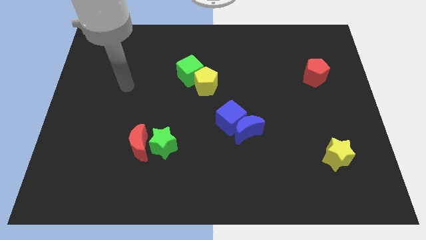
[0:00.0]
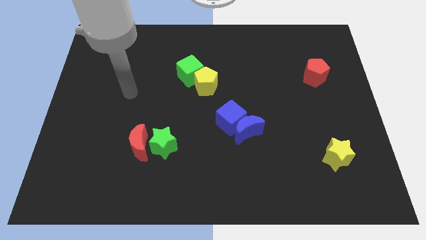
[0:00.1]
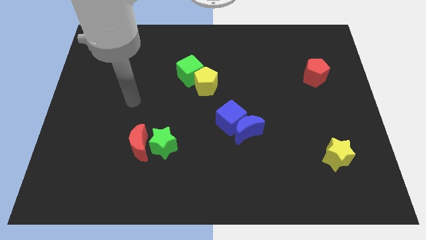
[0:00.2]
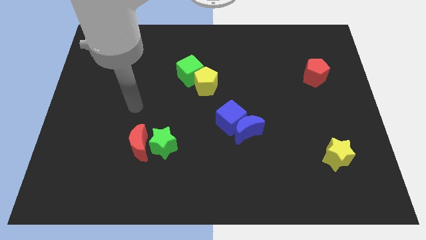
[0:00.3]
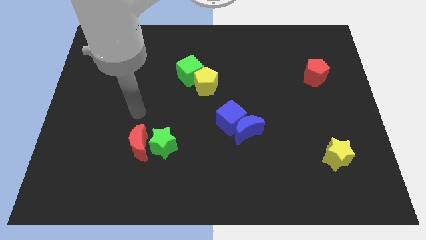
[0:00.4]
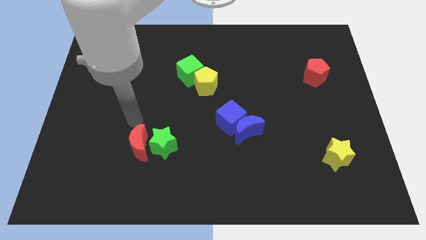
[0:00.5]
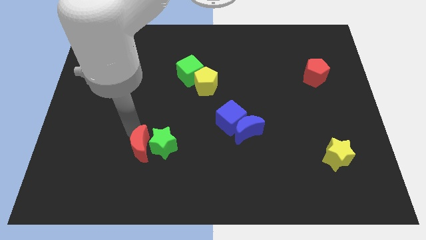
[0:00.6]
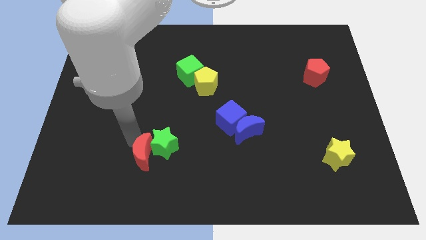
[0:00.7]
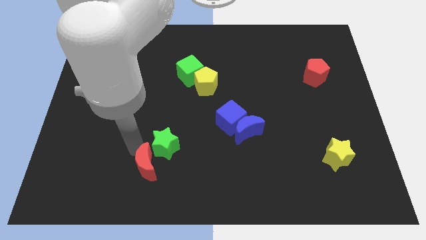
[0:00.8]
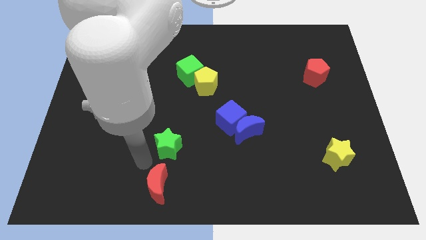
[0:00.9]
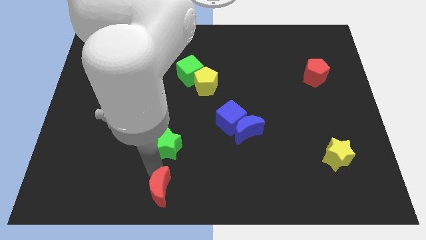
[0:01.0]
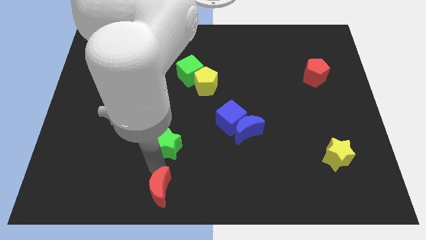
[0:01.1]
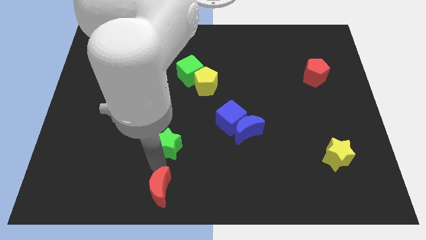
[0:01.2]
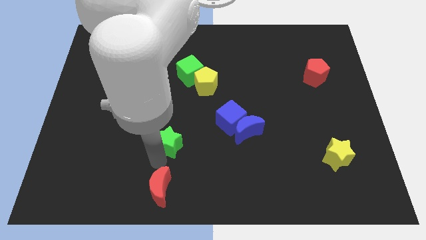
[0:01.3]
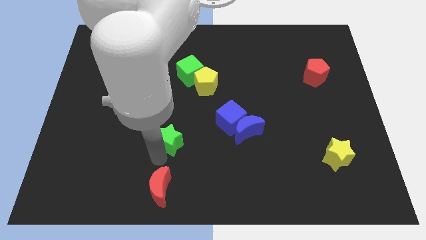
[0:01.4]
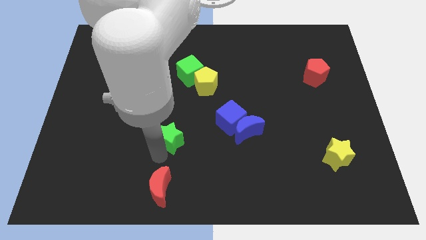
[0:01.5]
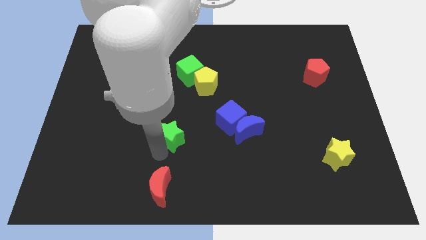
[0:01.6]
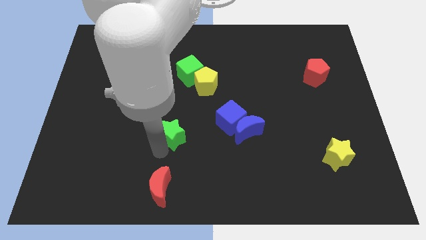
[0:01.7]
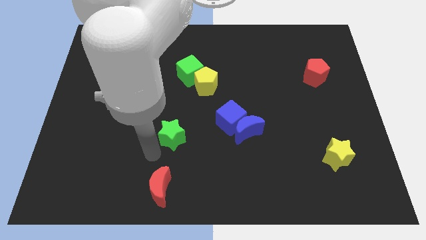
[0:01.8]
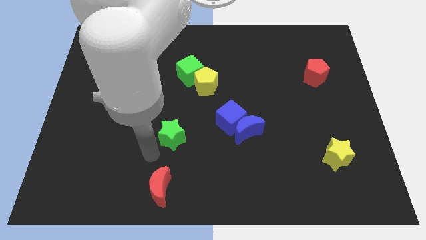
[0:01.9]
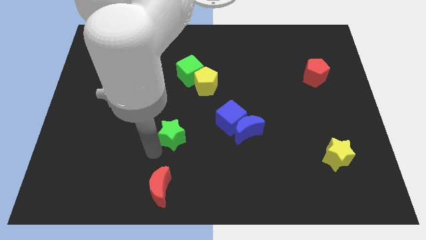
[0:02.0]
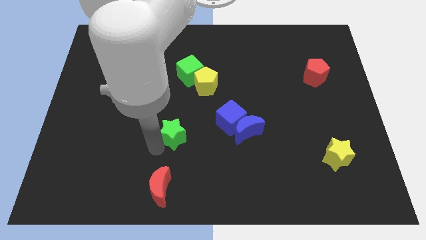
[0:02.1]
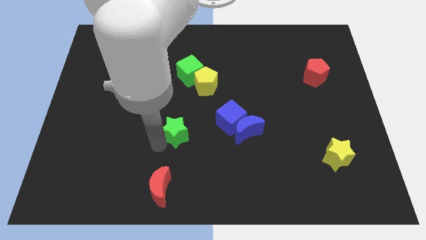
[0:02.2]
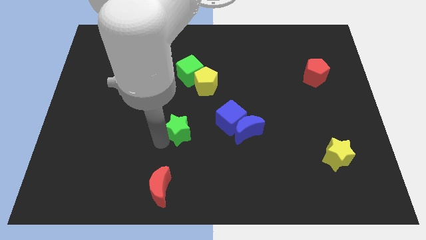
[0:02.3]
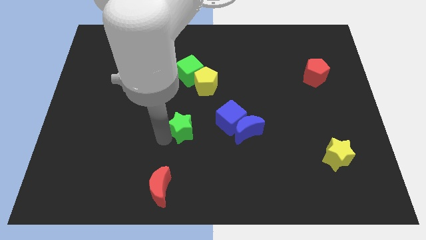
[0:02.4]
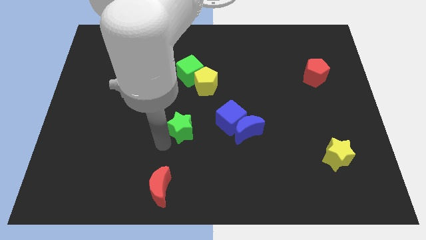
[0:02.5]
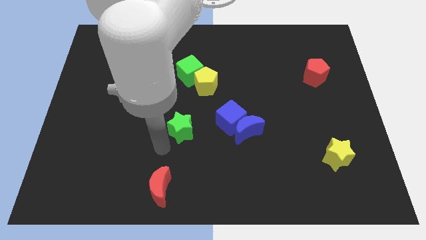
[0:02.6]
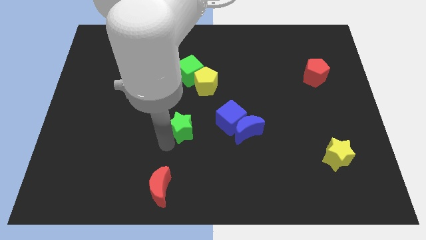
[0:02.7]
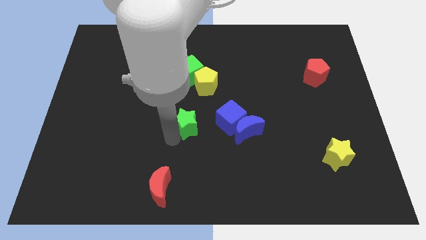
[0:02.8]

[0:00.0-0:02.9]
slightly move the green star upwards and to the right diagonally

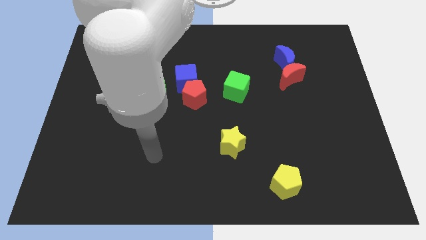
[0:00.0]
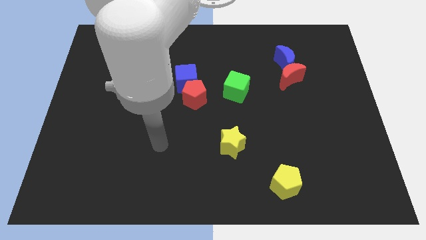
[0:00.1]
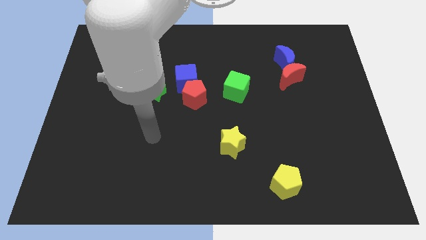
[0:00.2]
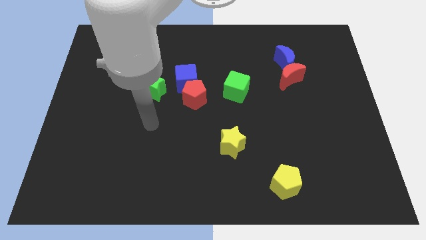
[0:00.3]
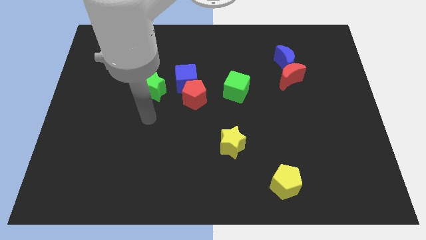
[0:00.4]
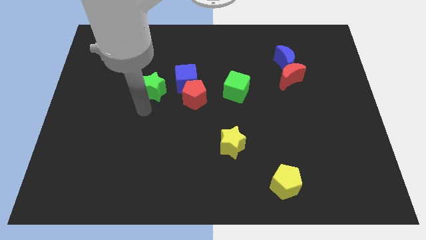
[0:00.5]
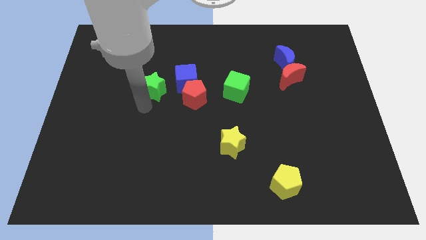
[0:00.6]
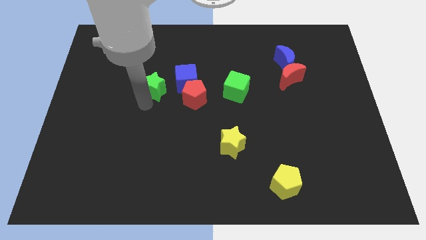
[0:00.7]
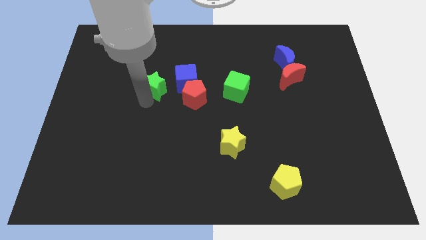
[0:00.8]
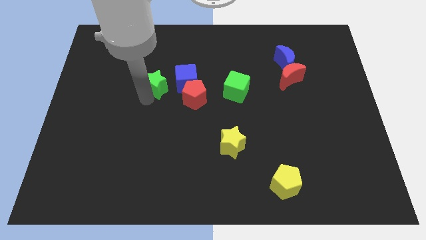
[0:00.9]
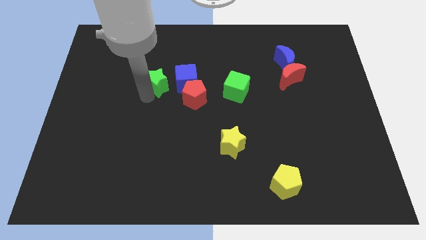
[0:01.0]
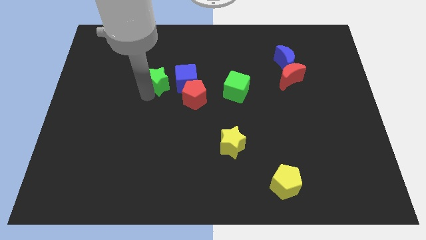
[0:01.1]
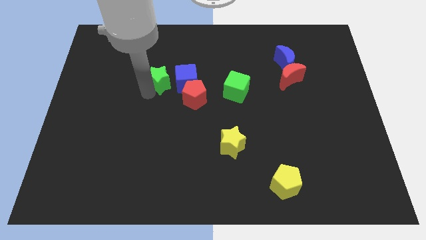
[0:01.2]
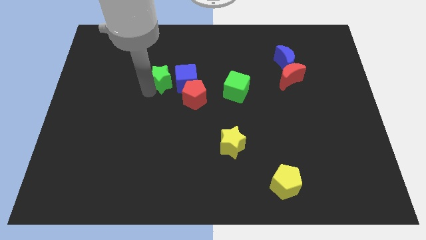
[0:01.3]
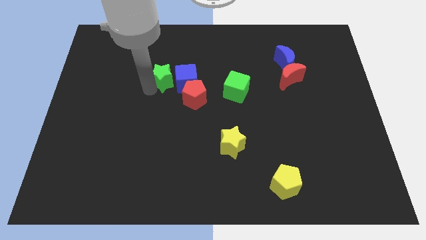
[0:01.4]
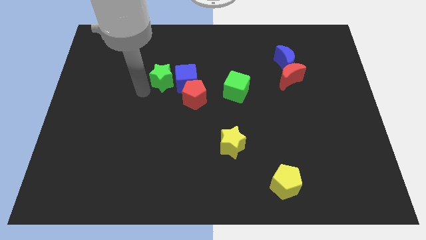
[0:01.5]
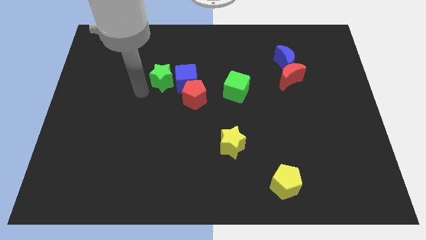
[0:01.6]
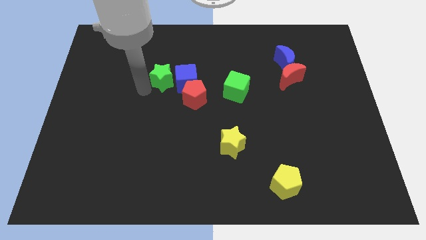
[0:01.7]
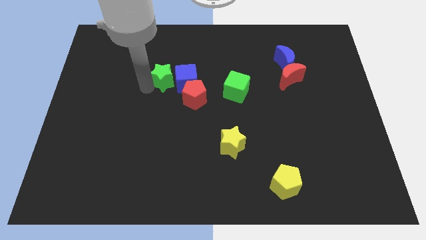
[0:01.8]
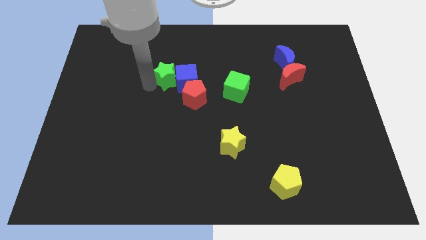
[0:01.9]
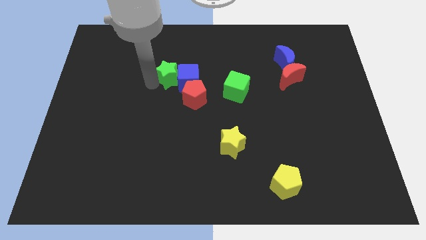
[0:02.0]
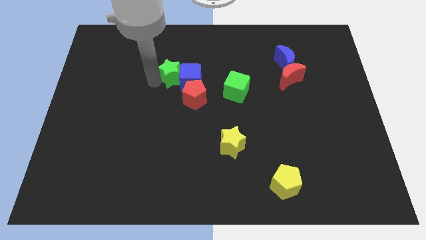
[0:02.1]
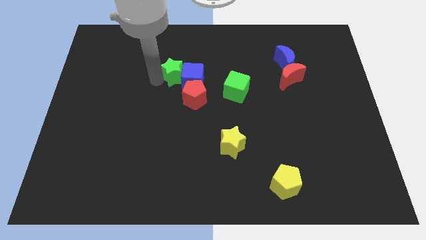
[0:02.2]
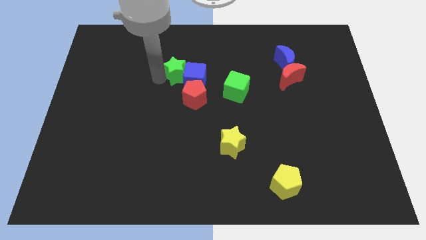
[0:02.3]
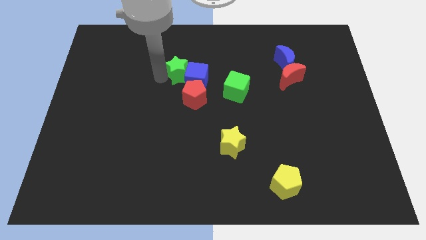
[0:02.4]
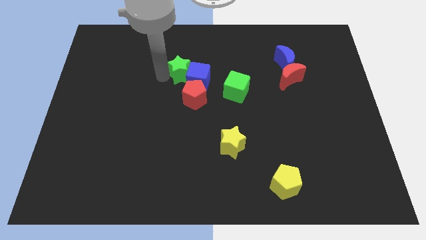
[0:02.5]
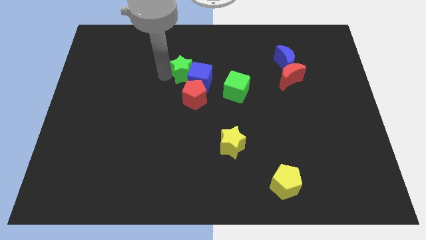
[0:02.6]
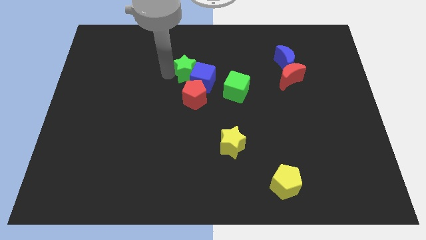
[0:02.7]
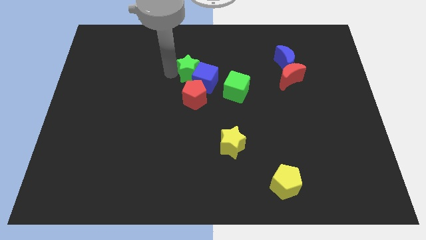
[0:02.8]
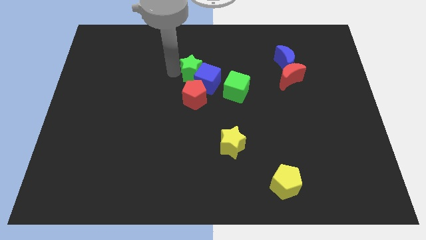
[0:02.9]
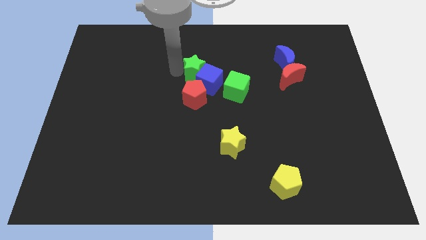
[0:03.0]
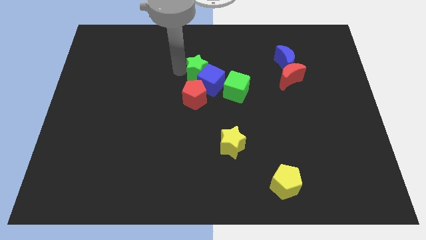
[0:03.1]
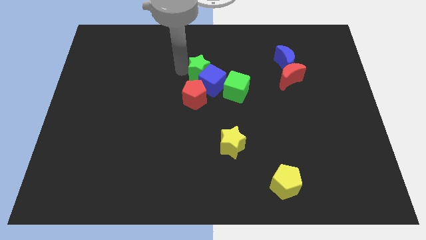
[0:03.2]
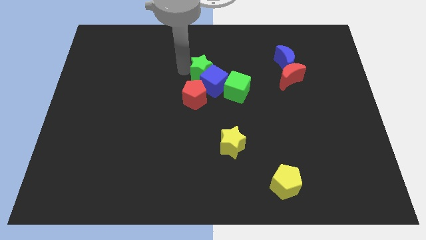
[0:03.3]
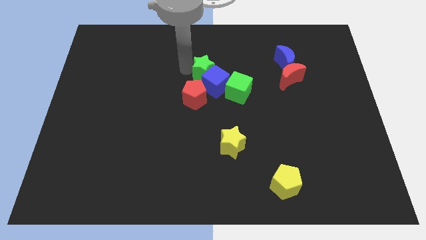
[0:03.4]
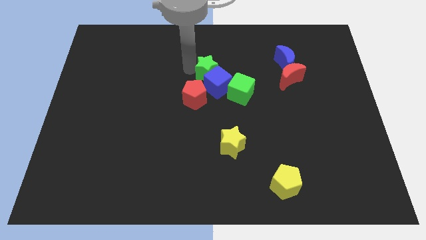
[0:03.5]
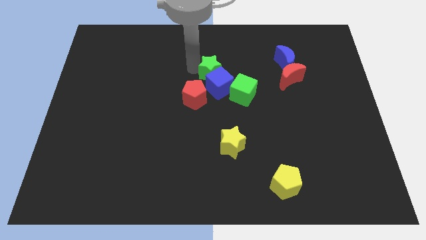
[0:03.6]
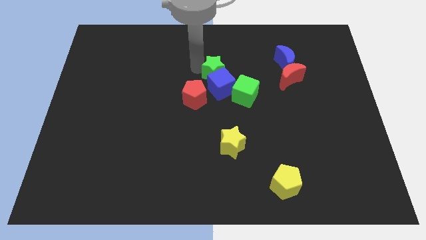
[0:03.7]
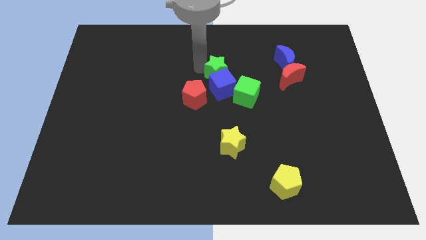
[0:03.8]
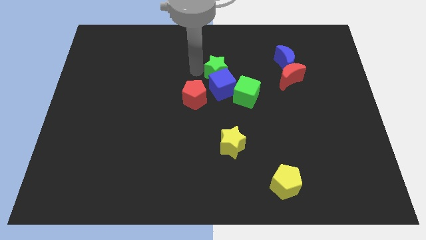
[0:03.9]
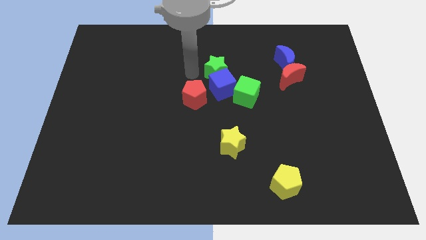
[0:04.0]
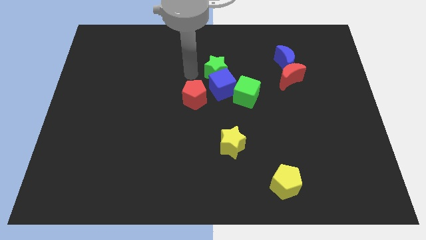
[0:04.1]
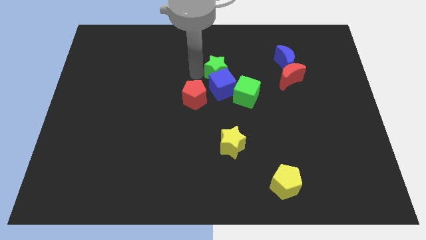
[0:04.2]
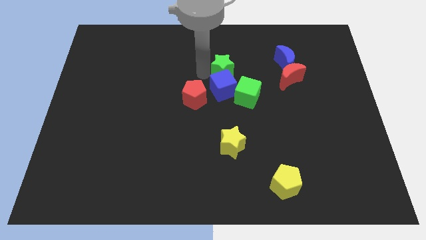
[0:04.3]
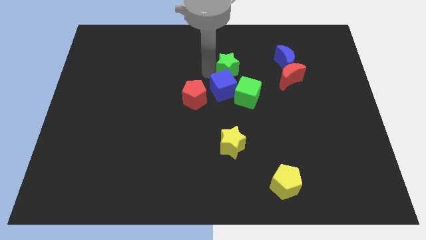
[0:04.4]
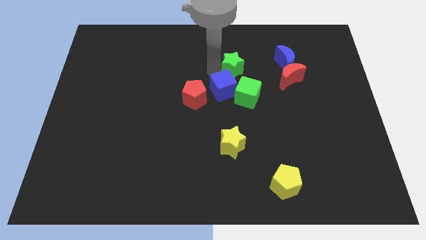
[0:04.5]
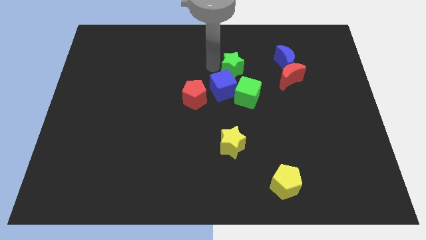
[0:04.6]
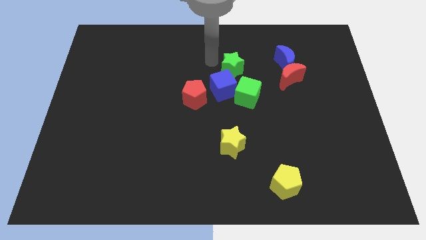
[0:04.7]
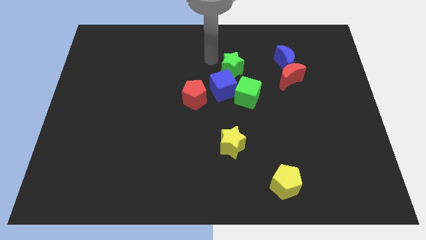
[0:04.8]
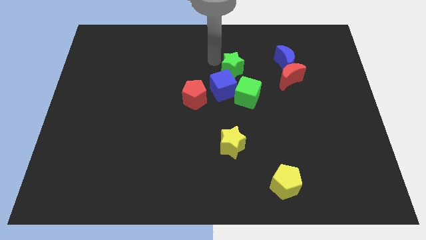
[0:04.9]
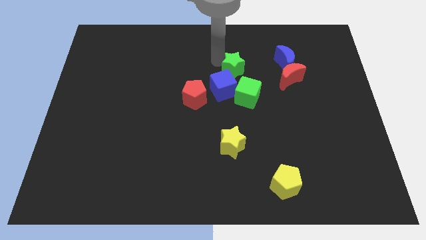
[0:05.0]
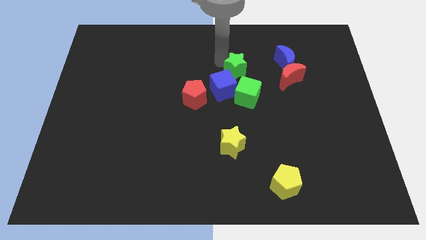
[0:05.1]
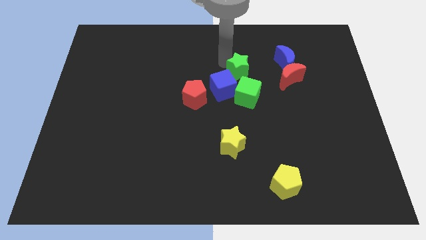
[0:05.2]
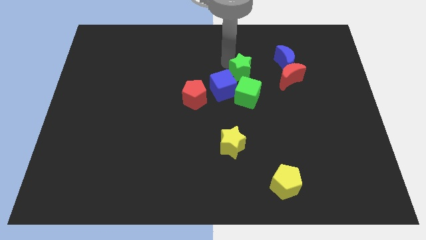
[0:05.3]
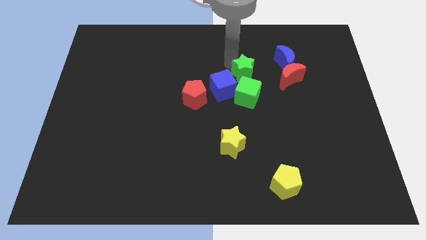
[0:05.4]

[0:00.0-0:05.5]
slide the green star to the right
